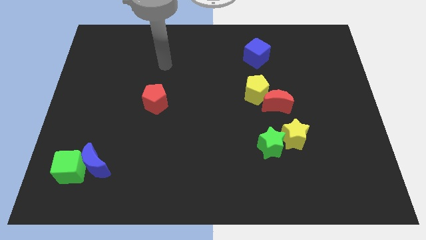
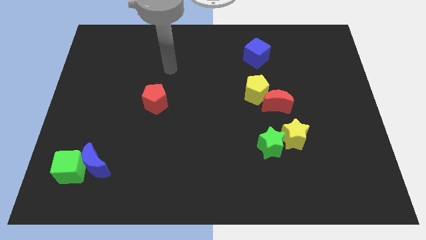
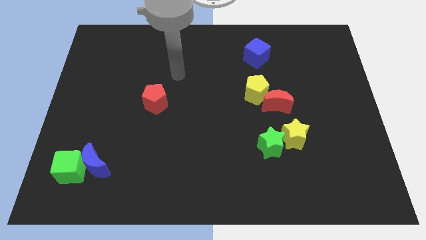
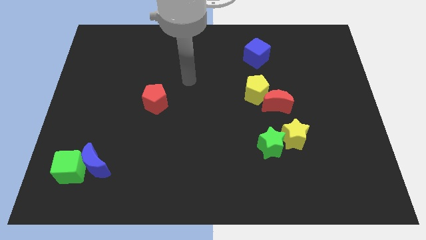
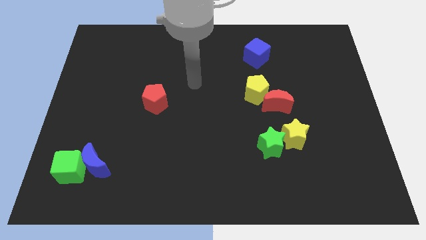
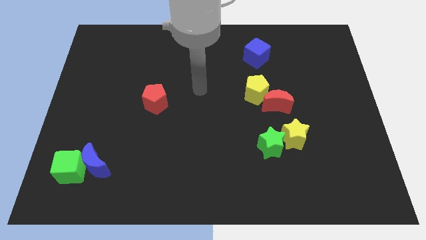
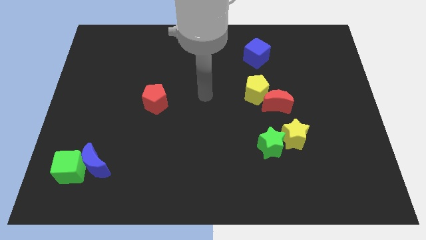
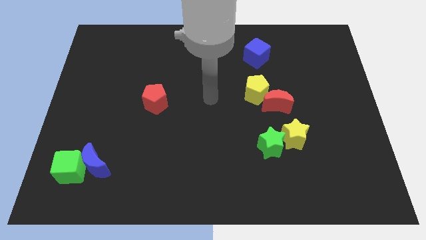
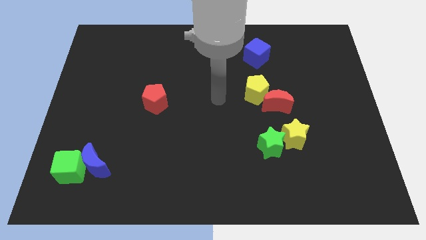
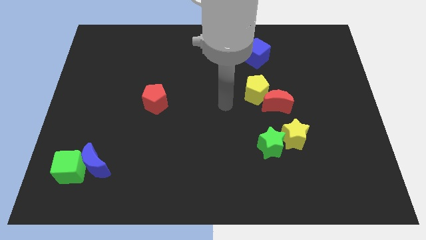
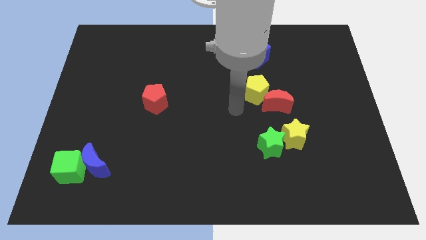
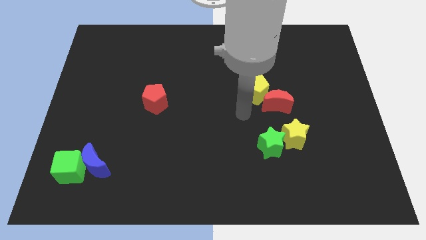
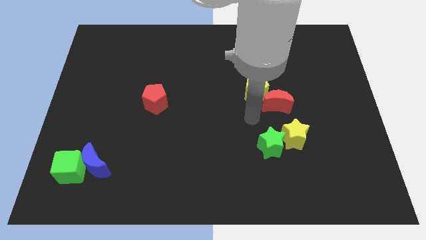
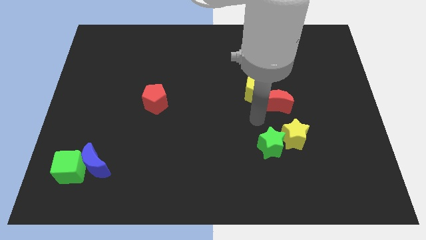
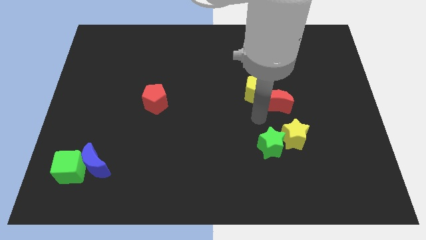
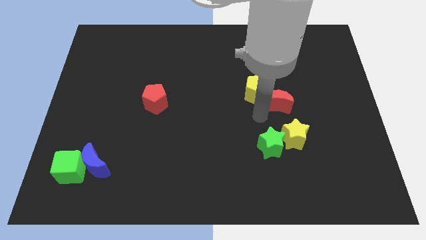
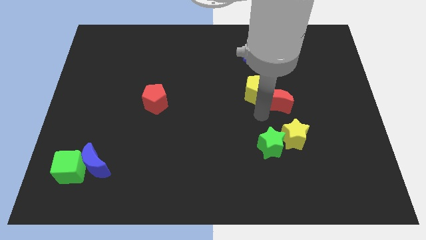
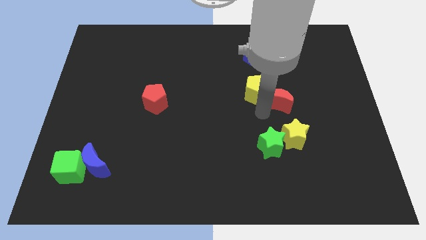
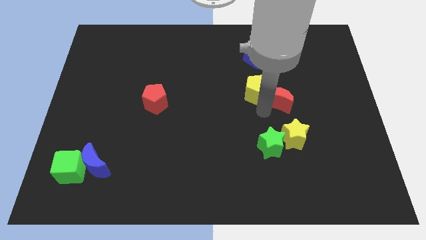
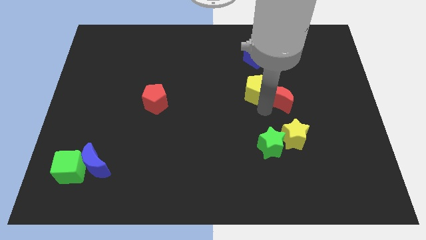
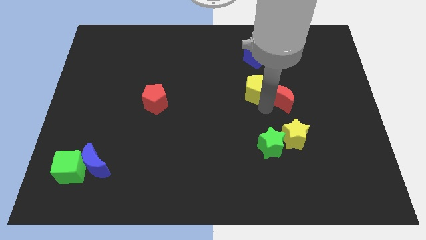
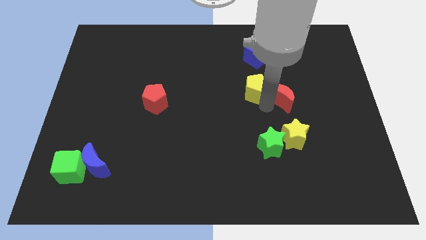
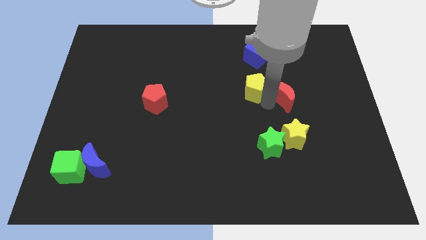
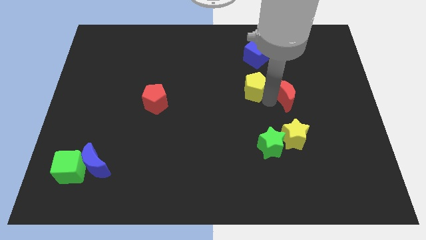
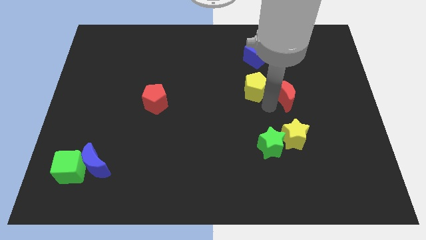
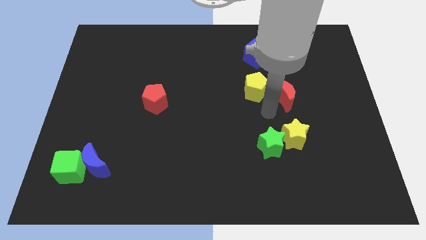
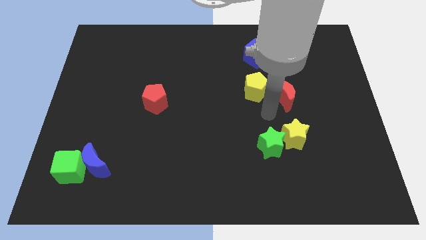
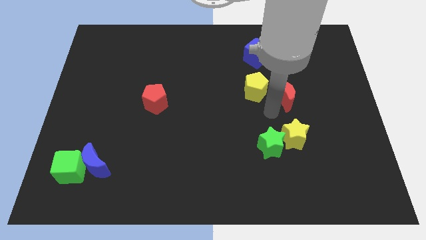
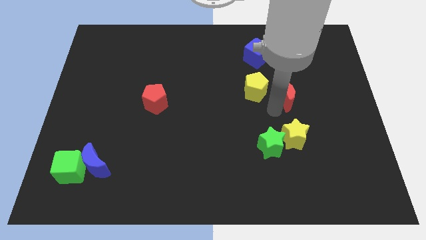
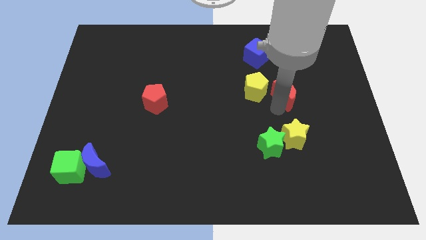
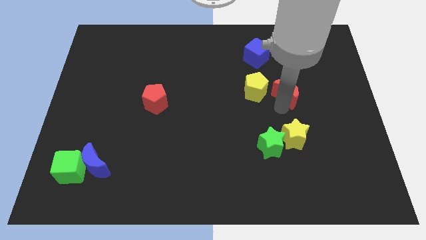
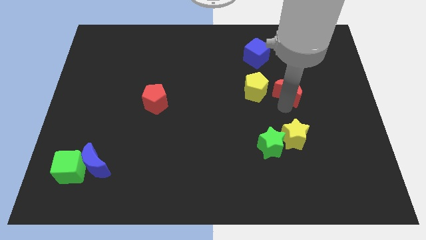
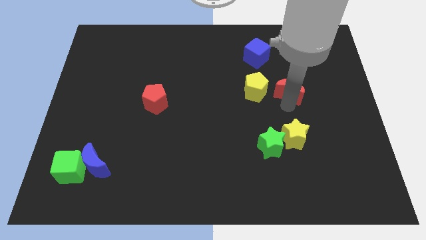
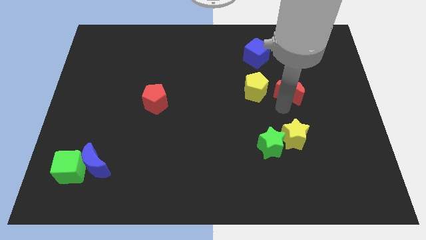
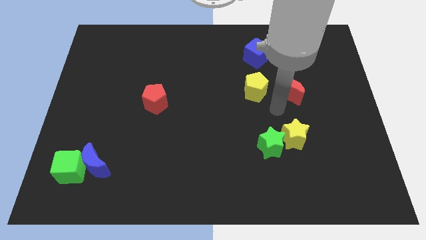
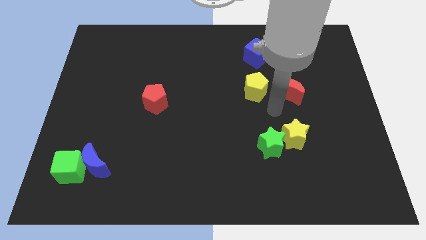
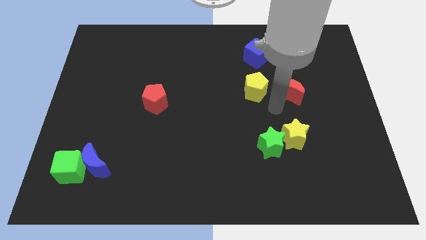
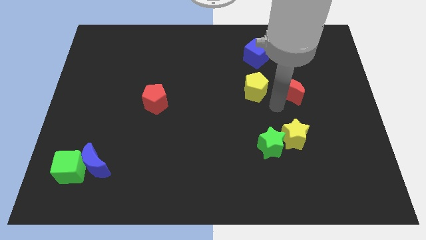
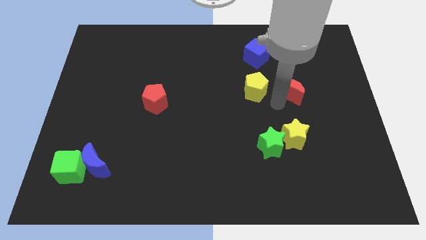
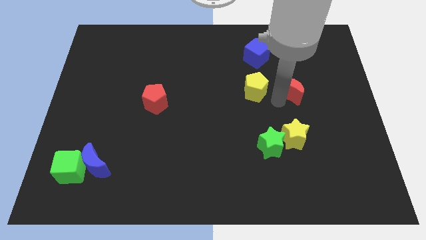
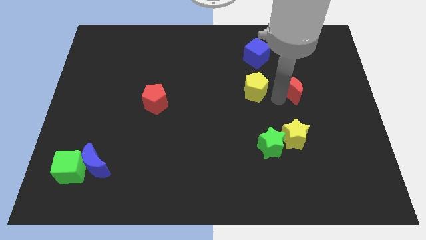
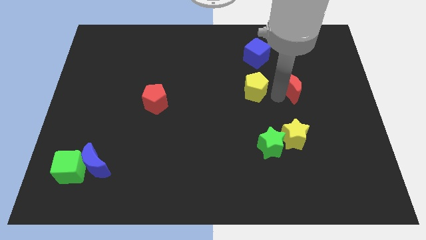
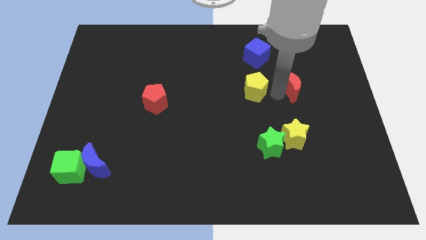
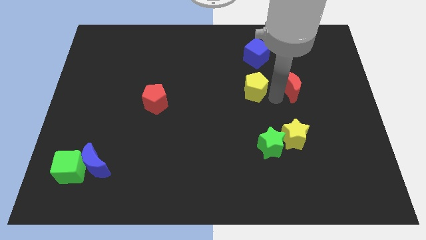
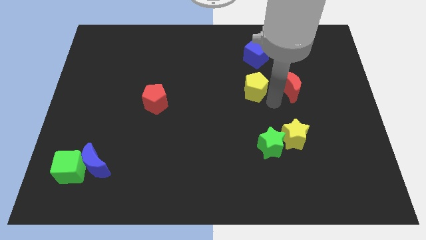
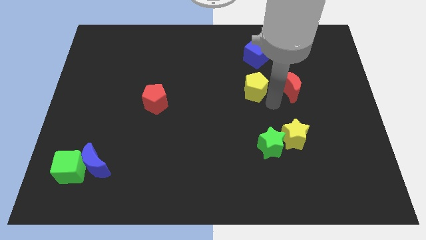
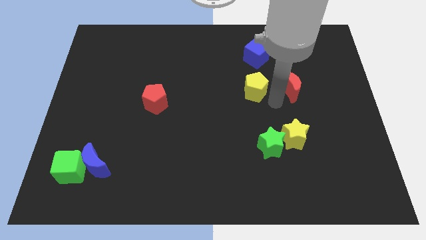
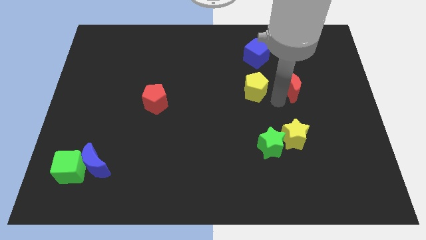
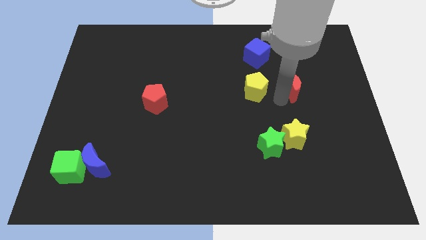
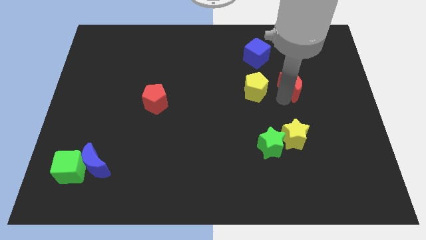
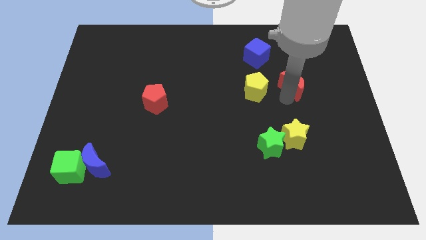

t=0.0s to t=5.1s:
slide the red moon upwards and to the right a little

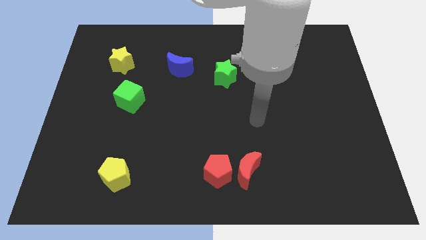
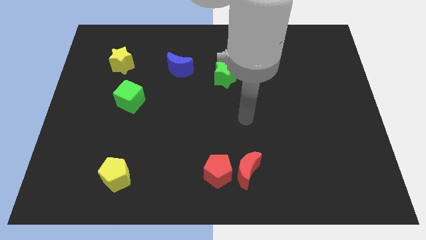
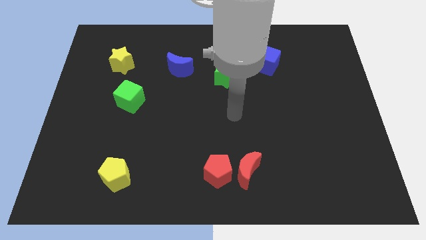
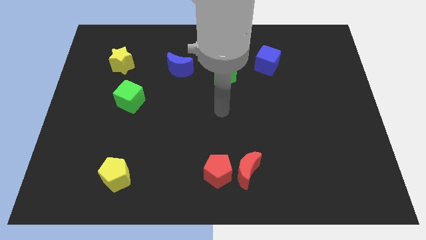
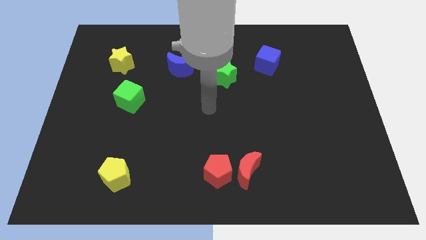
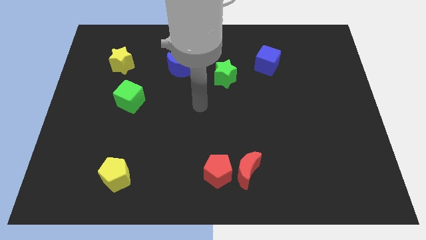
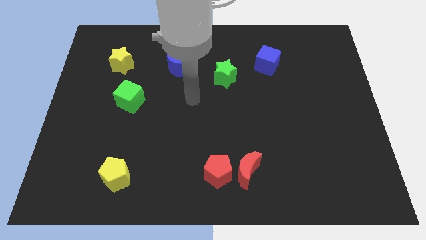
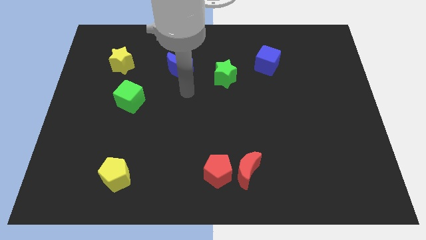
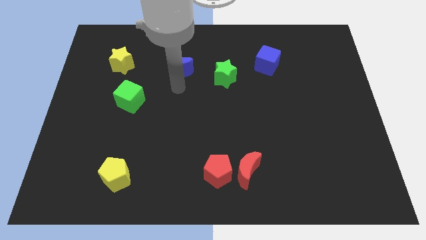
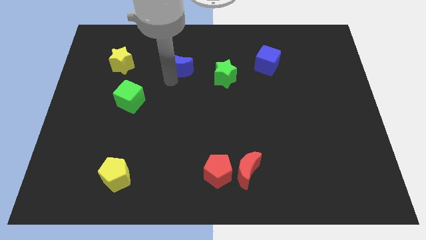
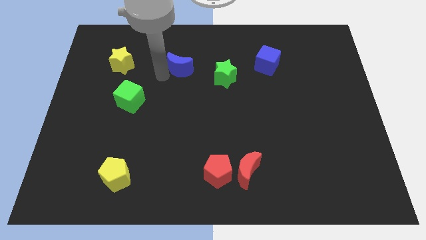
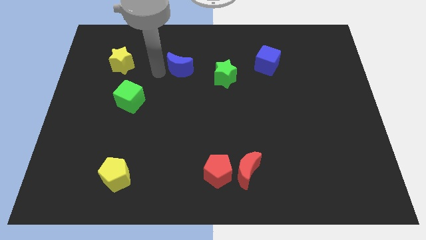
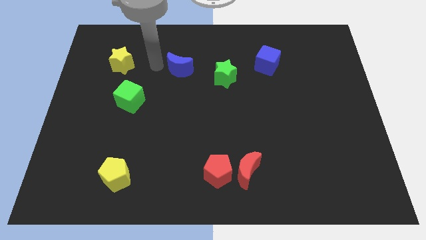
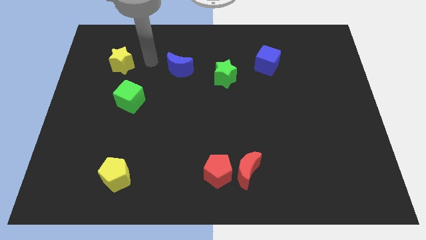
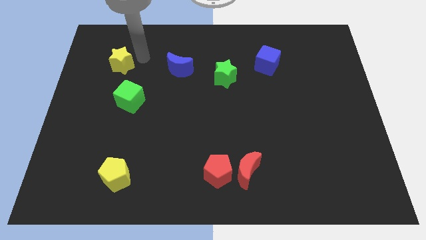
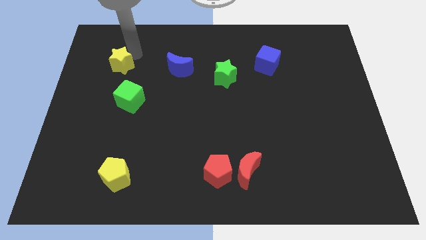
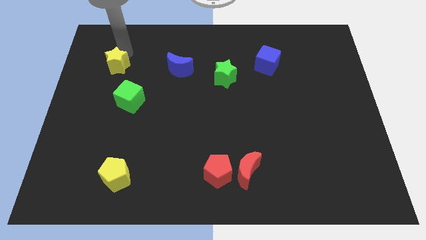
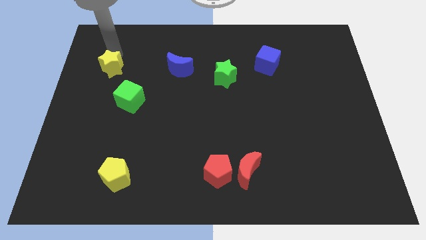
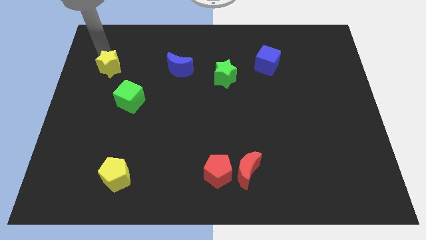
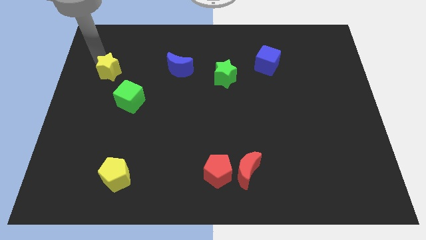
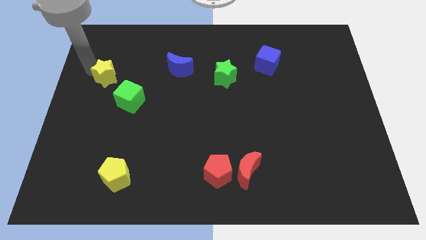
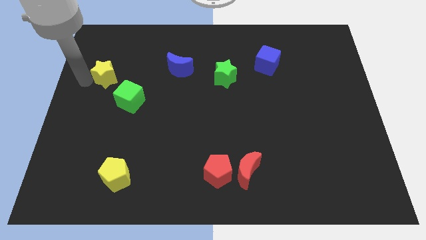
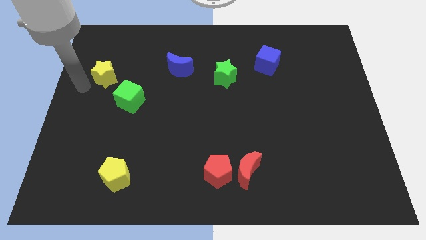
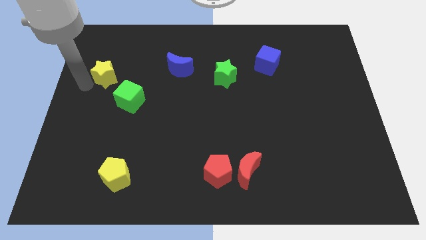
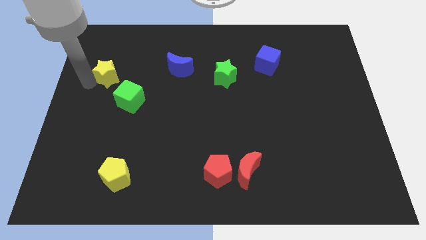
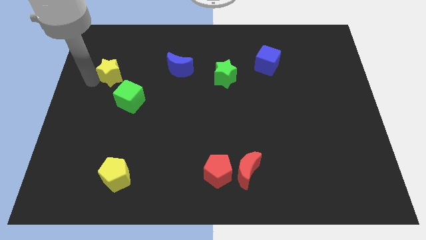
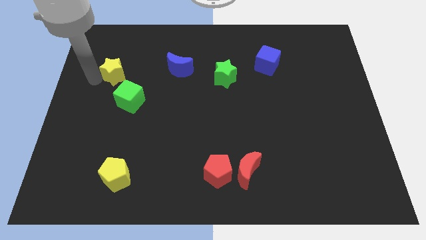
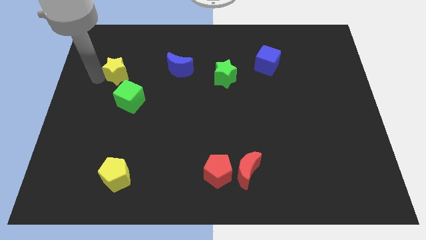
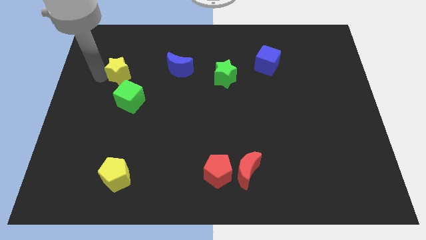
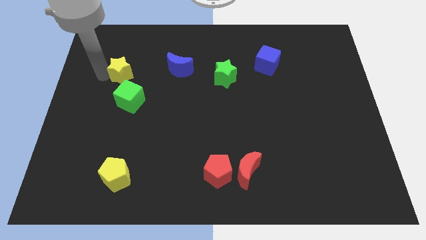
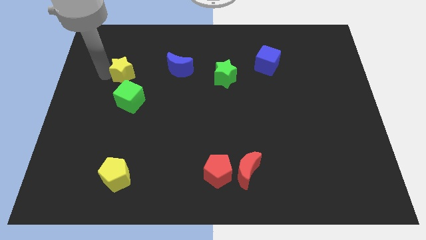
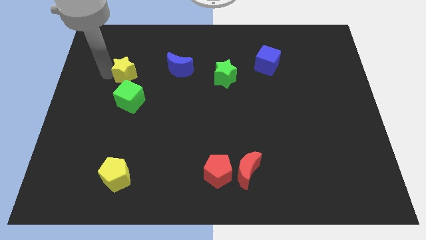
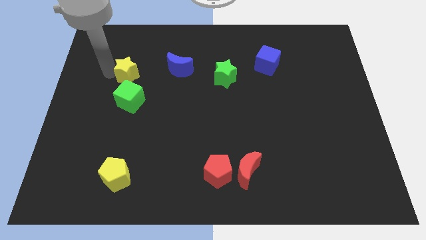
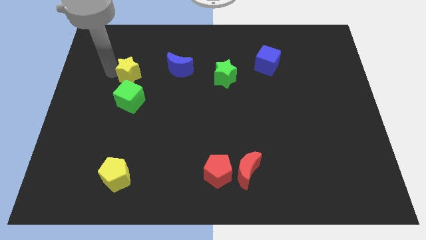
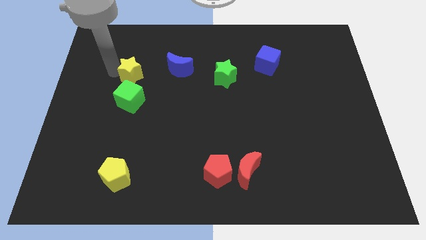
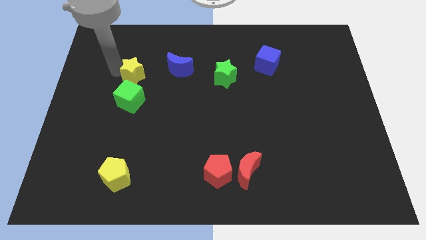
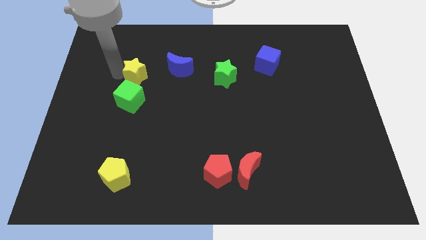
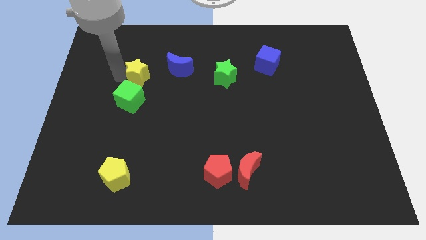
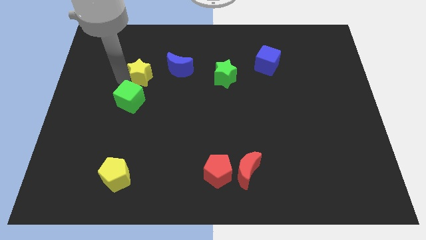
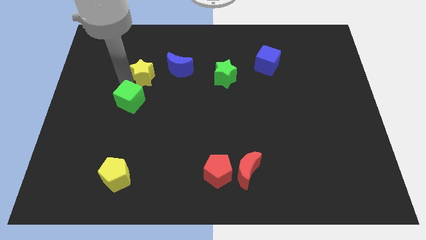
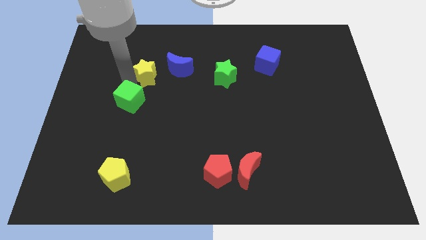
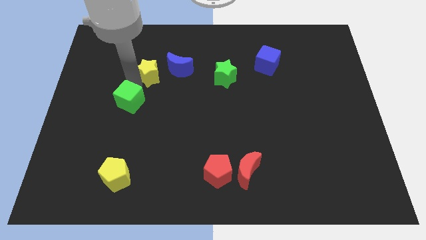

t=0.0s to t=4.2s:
slide the yellow star somewhat right
